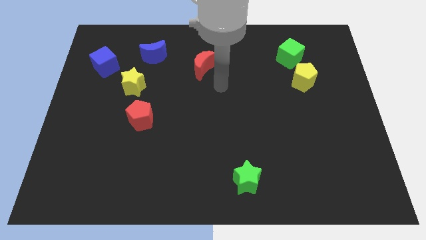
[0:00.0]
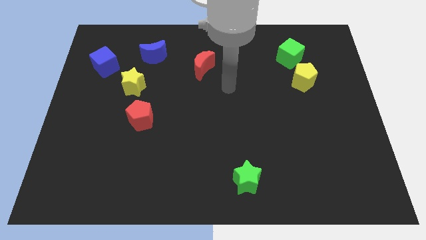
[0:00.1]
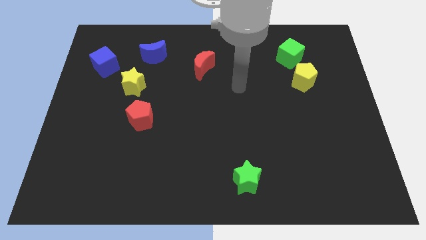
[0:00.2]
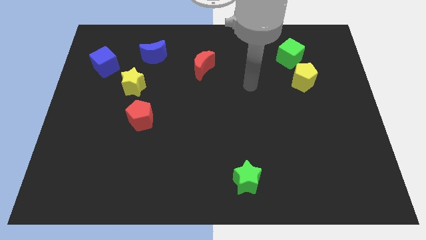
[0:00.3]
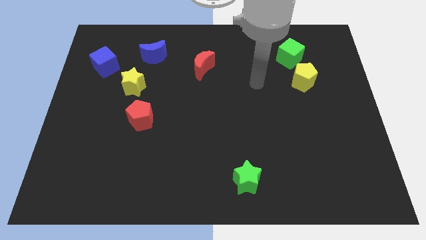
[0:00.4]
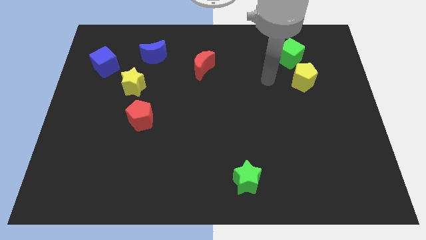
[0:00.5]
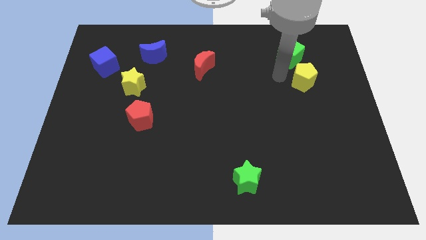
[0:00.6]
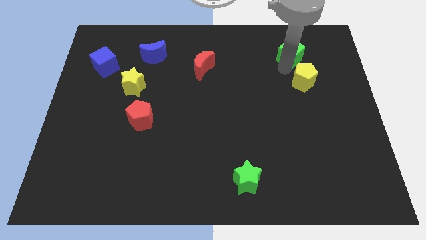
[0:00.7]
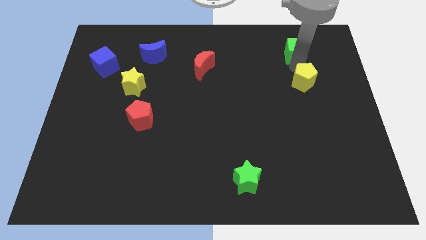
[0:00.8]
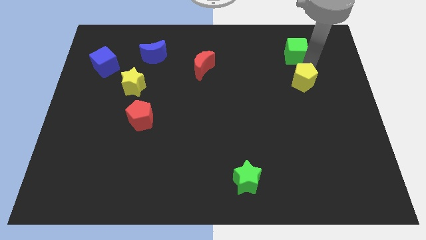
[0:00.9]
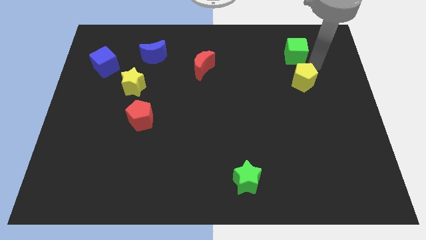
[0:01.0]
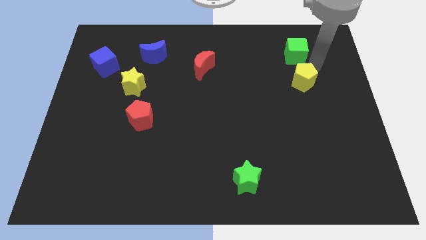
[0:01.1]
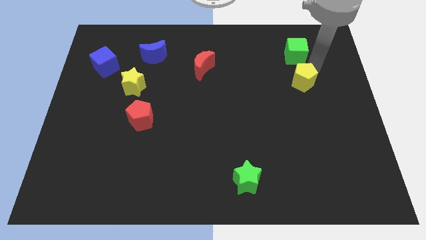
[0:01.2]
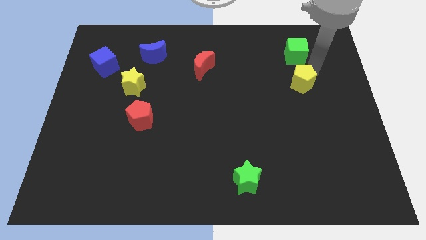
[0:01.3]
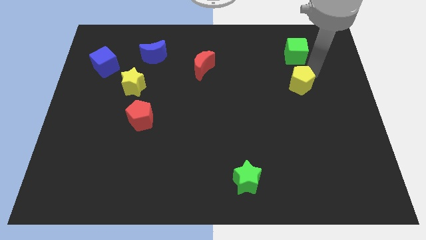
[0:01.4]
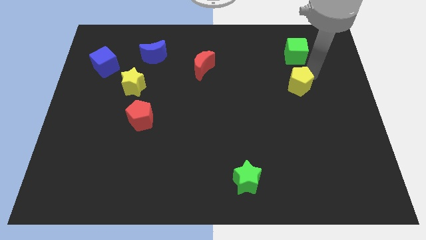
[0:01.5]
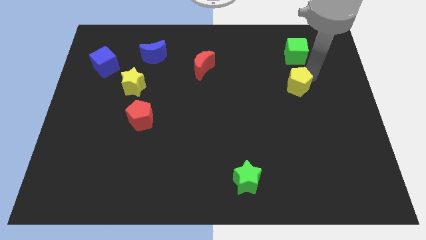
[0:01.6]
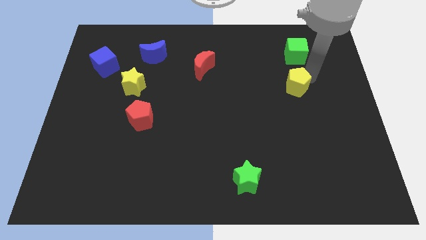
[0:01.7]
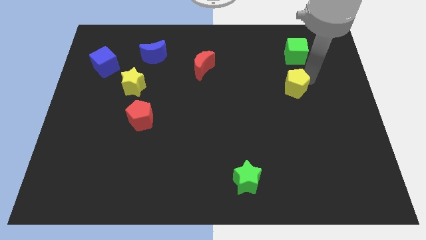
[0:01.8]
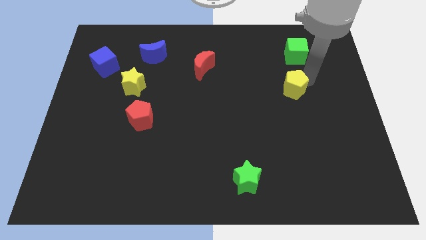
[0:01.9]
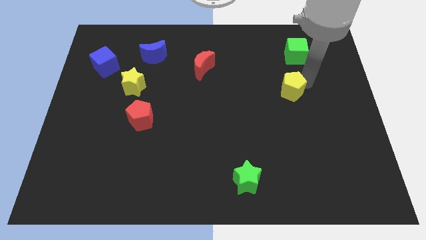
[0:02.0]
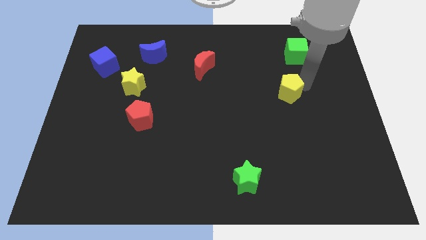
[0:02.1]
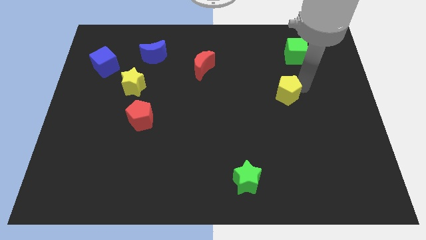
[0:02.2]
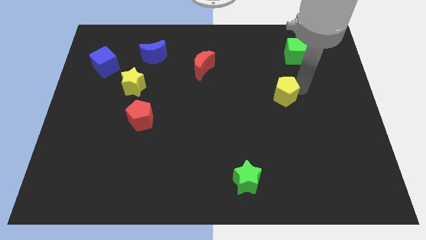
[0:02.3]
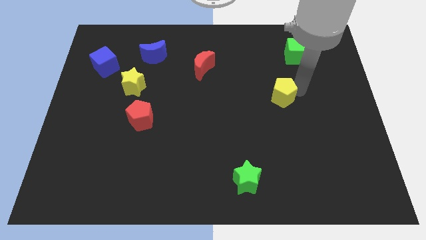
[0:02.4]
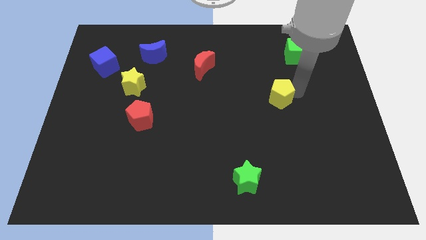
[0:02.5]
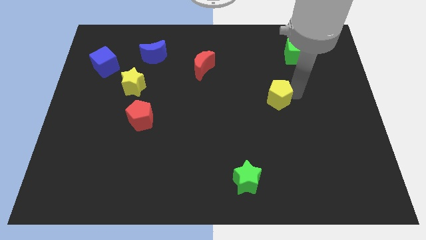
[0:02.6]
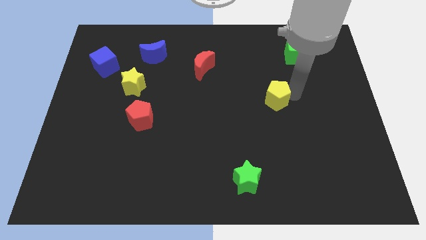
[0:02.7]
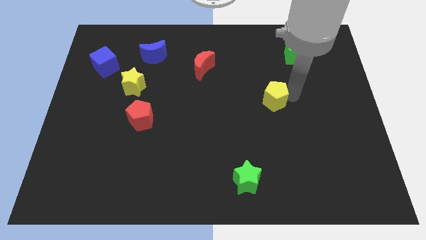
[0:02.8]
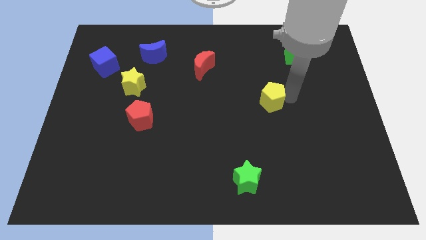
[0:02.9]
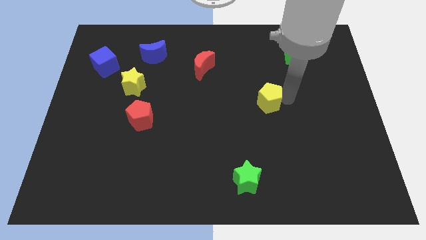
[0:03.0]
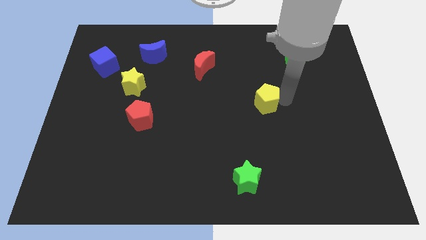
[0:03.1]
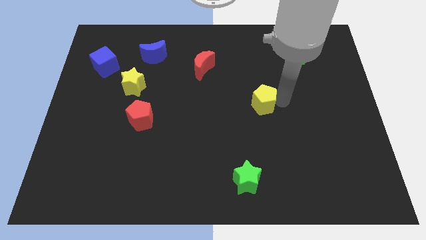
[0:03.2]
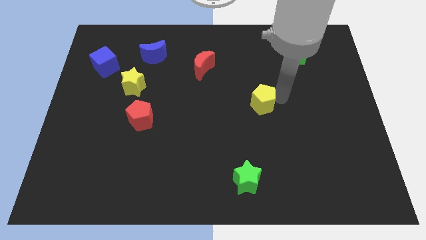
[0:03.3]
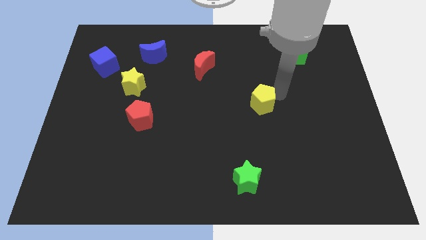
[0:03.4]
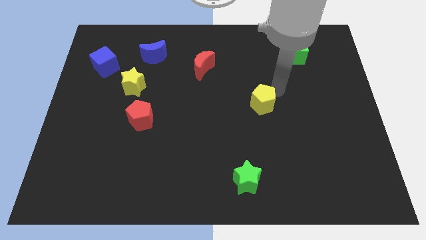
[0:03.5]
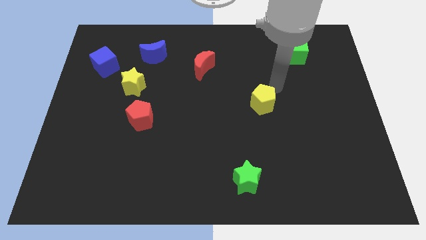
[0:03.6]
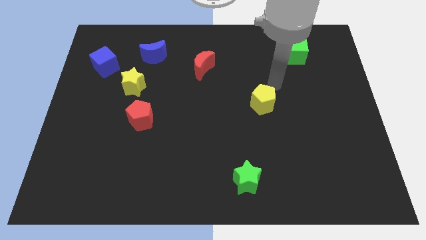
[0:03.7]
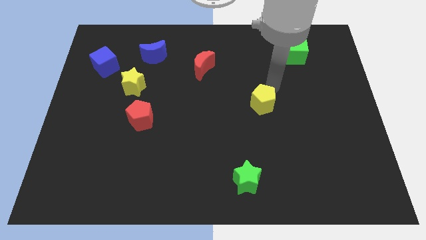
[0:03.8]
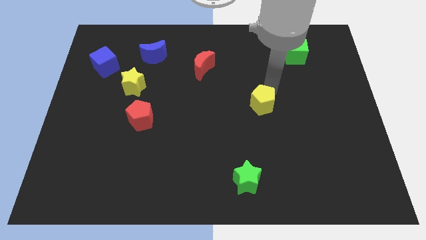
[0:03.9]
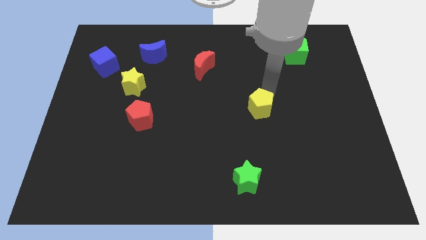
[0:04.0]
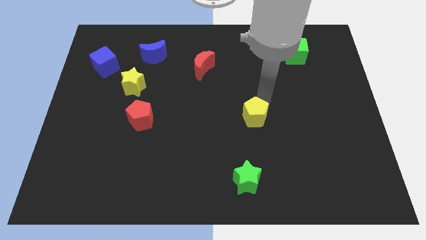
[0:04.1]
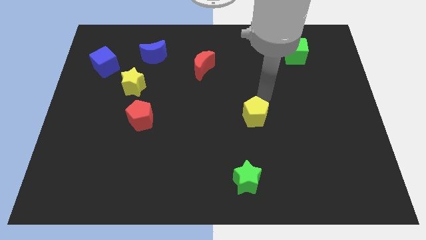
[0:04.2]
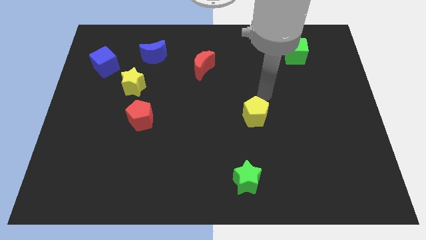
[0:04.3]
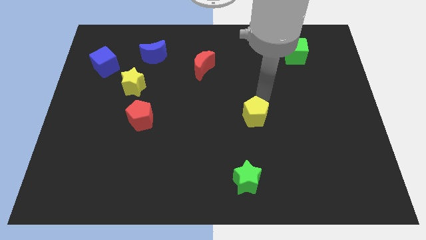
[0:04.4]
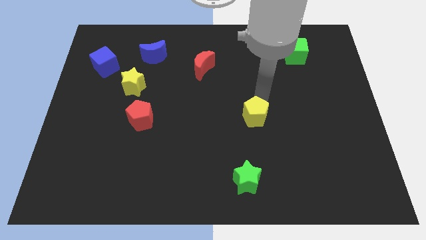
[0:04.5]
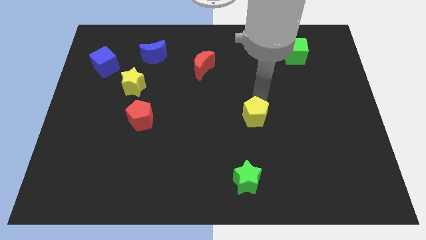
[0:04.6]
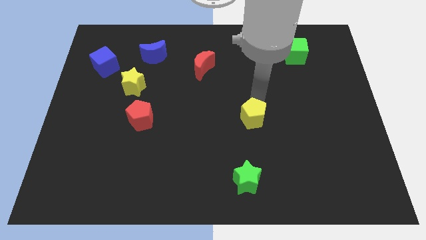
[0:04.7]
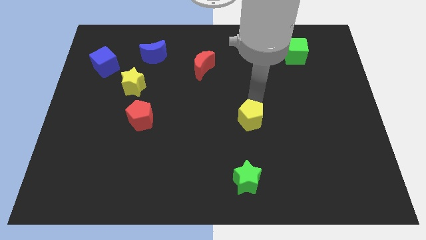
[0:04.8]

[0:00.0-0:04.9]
put the yellow pentagon above the green star

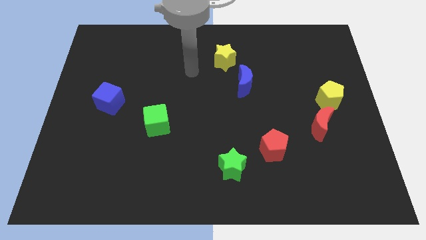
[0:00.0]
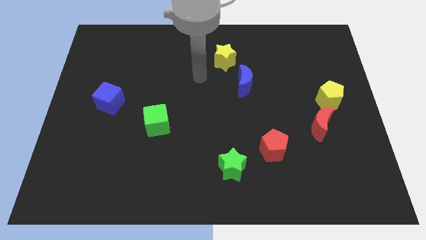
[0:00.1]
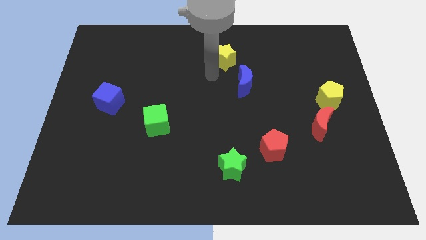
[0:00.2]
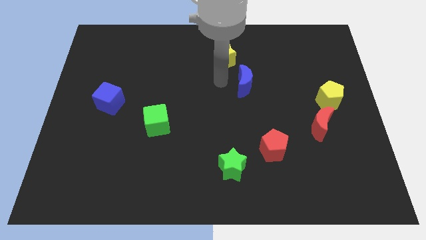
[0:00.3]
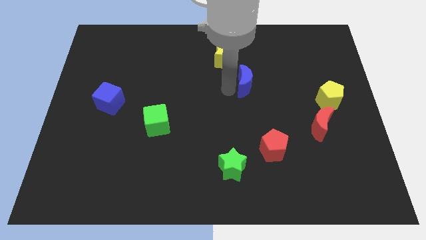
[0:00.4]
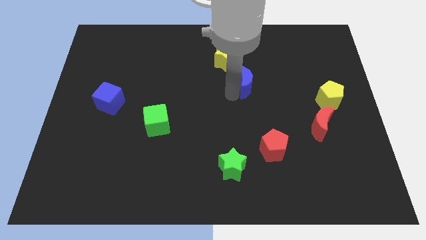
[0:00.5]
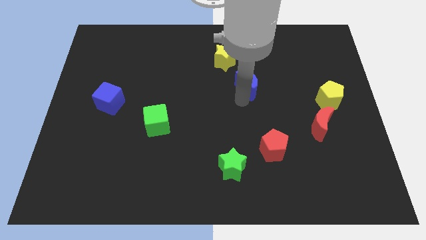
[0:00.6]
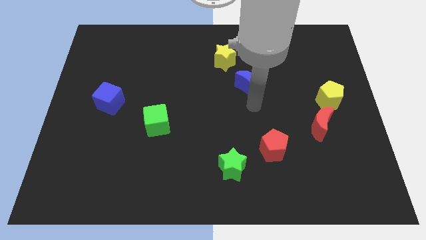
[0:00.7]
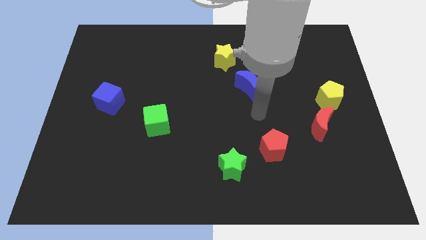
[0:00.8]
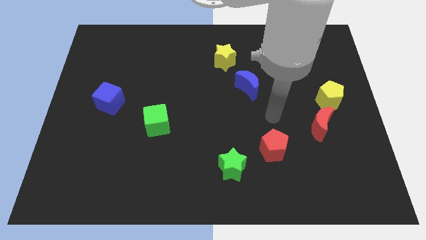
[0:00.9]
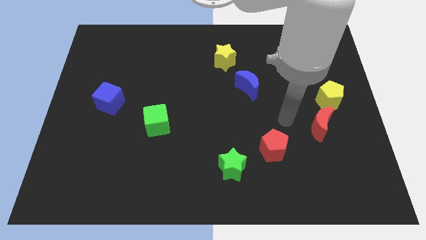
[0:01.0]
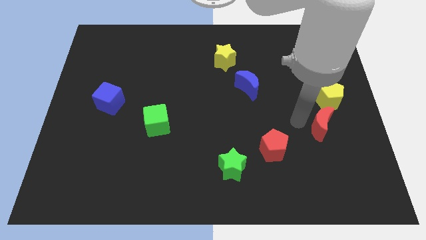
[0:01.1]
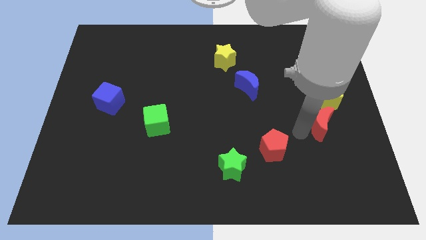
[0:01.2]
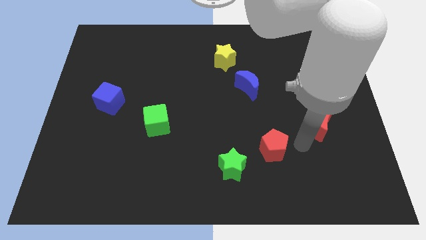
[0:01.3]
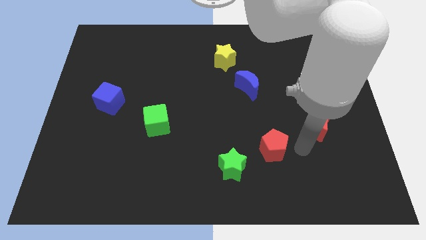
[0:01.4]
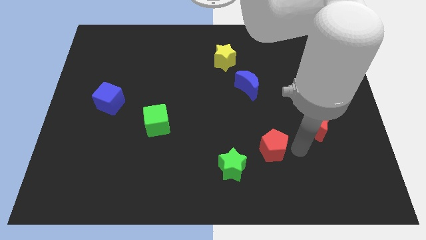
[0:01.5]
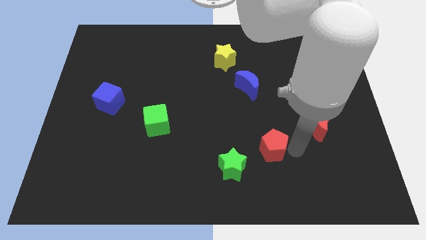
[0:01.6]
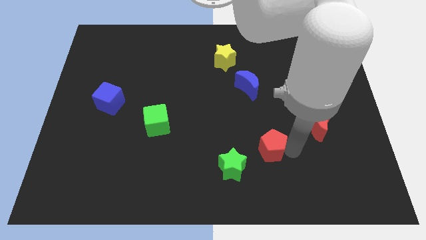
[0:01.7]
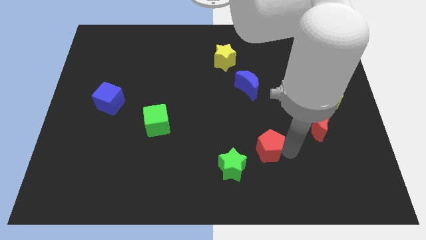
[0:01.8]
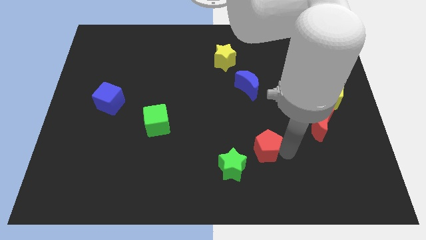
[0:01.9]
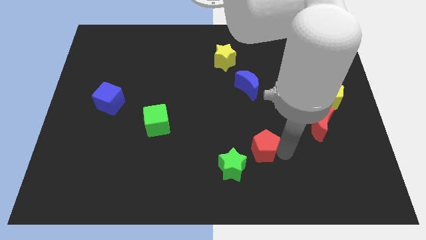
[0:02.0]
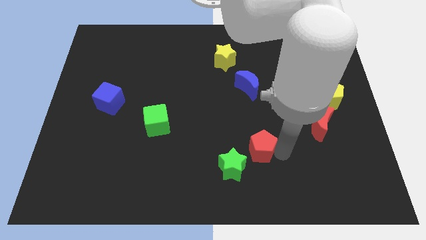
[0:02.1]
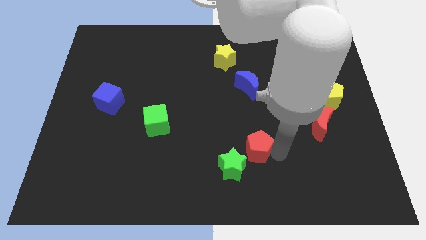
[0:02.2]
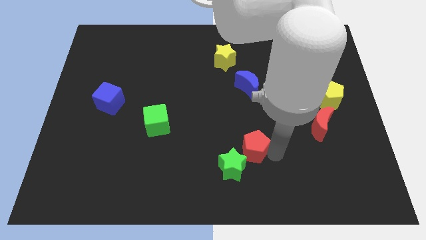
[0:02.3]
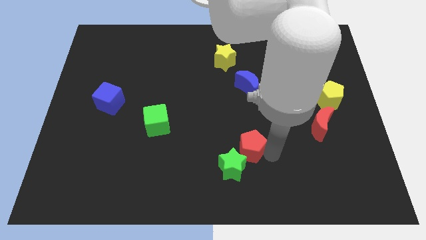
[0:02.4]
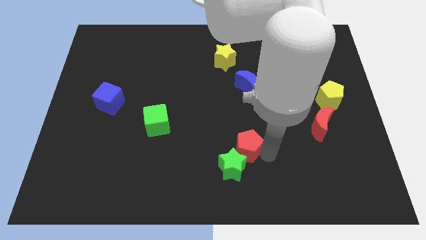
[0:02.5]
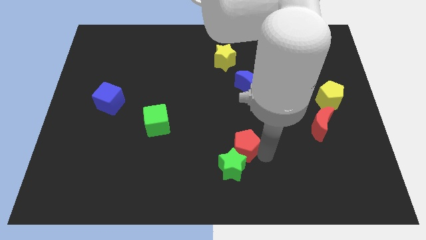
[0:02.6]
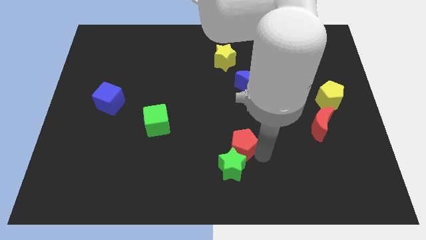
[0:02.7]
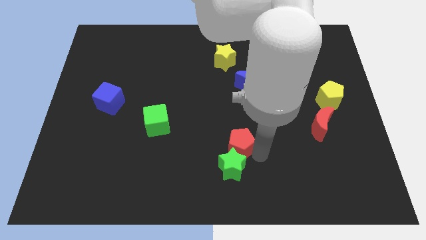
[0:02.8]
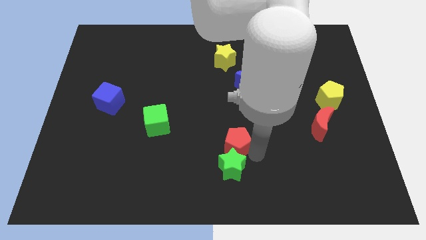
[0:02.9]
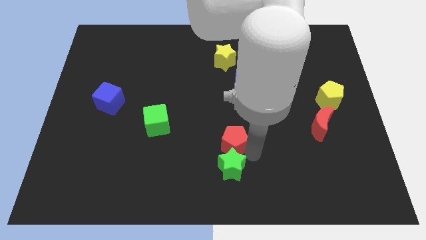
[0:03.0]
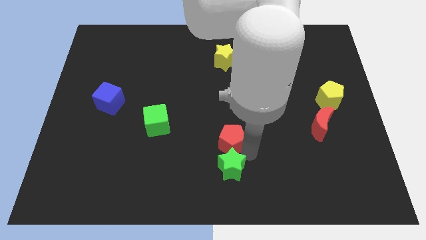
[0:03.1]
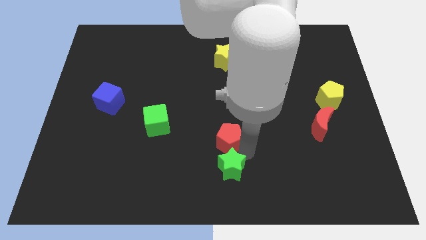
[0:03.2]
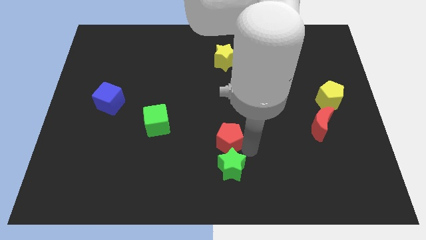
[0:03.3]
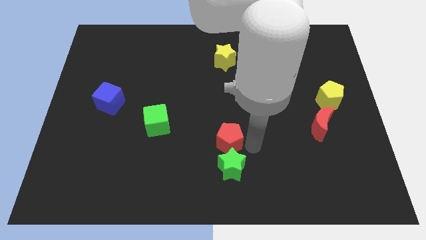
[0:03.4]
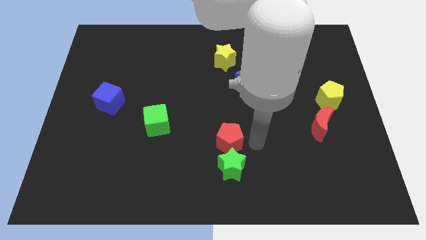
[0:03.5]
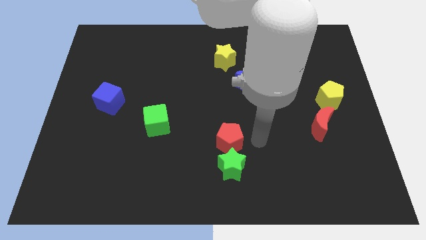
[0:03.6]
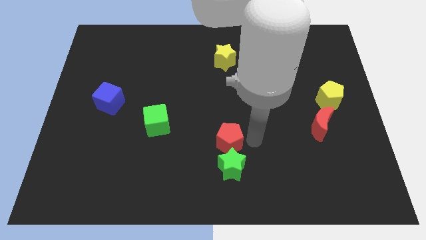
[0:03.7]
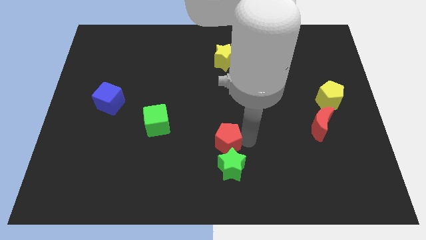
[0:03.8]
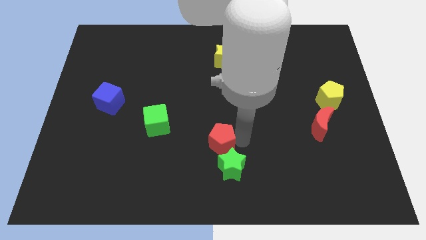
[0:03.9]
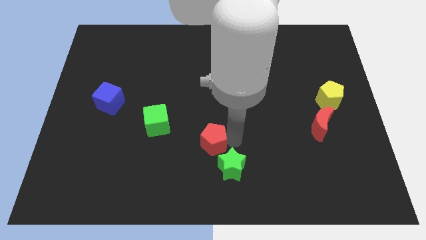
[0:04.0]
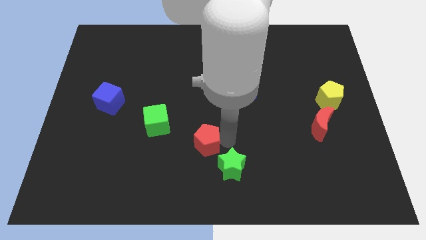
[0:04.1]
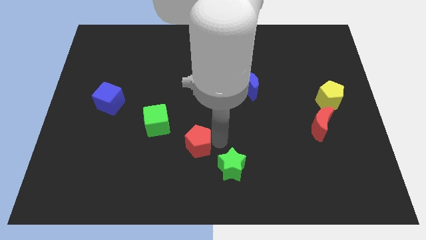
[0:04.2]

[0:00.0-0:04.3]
move the red pentagon diagonally down and to the right of the green cube
